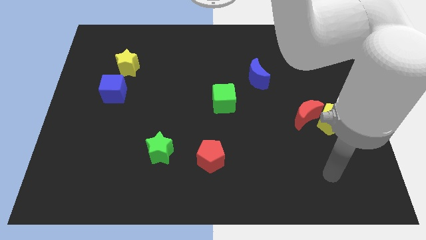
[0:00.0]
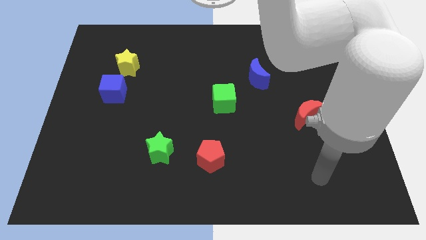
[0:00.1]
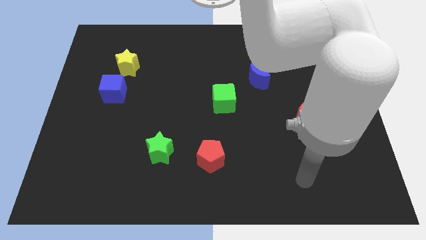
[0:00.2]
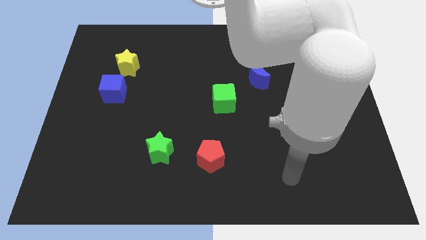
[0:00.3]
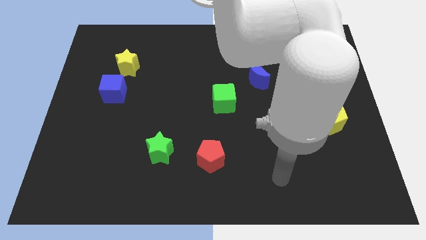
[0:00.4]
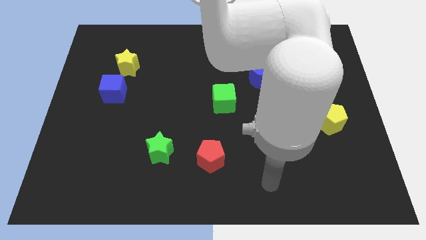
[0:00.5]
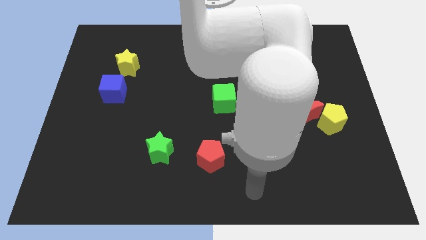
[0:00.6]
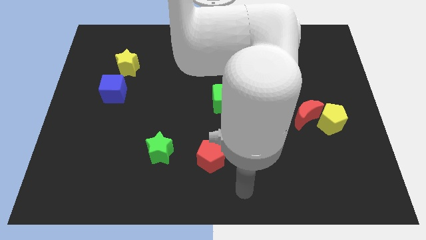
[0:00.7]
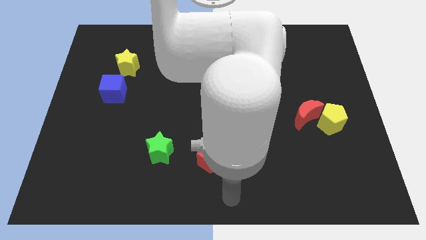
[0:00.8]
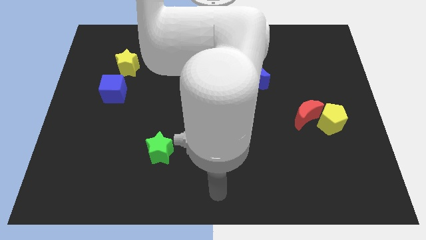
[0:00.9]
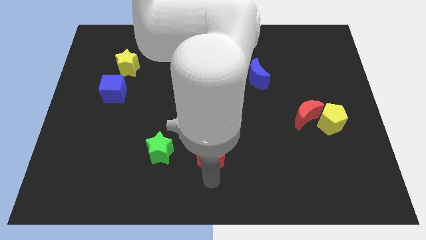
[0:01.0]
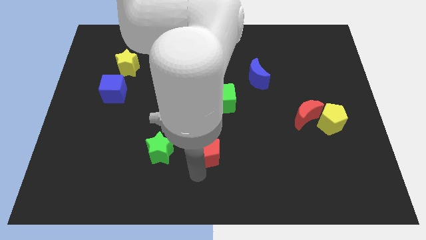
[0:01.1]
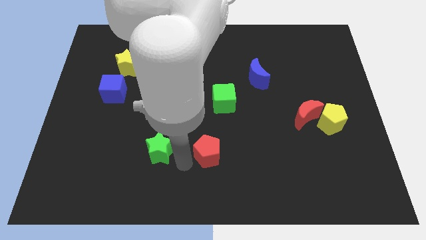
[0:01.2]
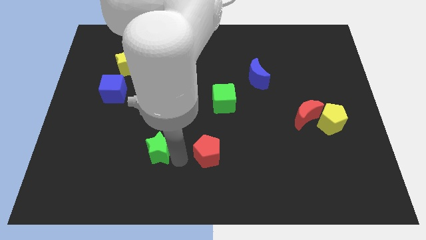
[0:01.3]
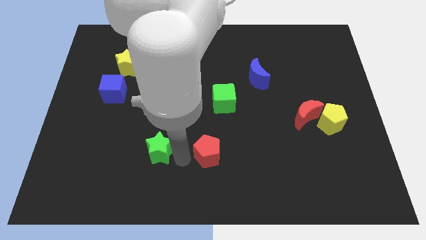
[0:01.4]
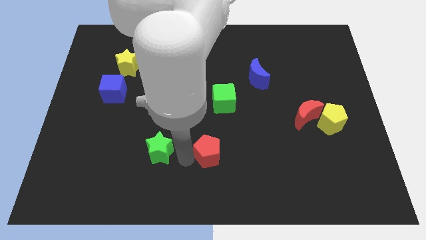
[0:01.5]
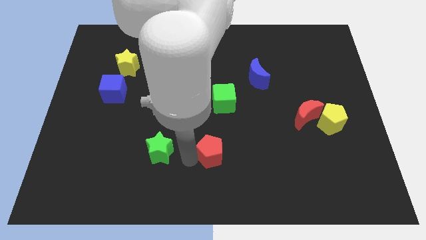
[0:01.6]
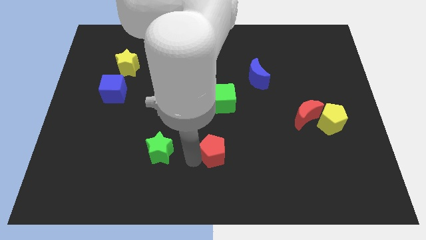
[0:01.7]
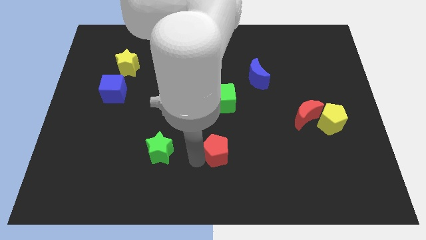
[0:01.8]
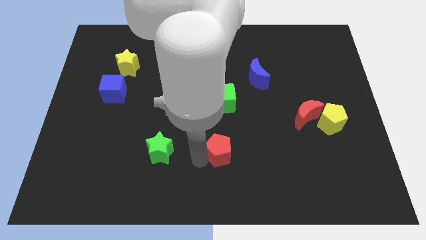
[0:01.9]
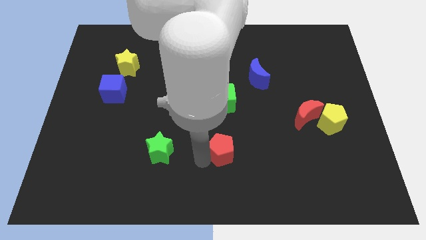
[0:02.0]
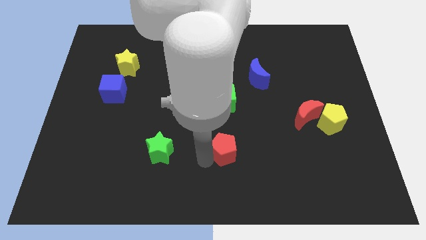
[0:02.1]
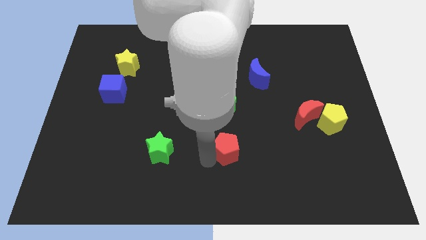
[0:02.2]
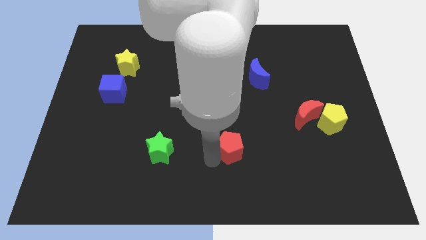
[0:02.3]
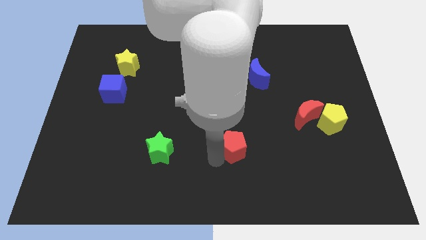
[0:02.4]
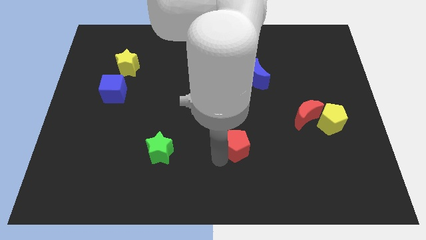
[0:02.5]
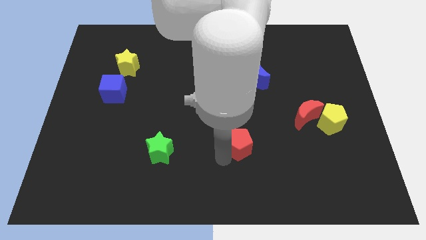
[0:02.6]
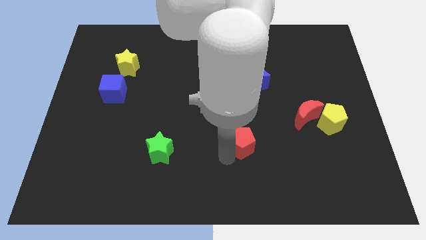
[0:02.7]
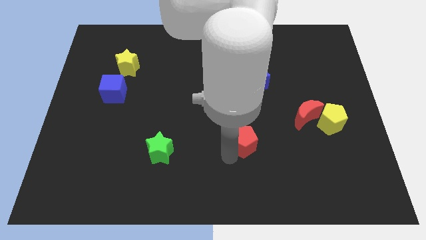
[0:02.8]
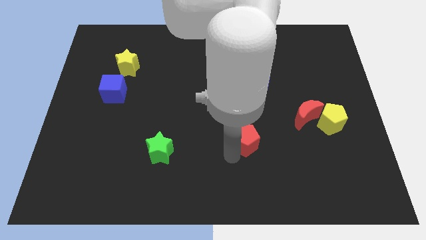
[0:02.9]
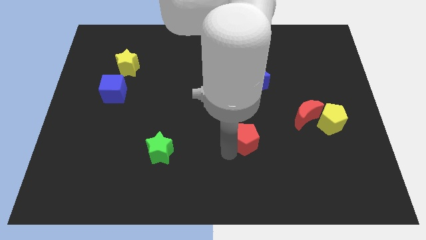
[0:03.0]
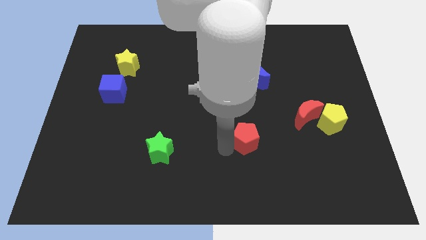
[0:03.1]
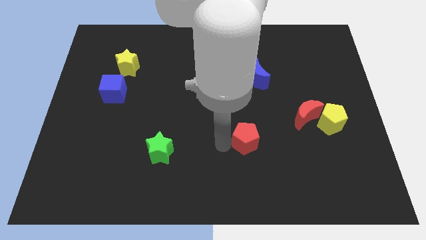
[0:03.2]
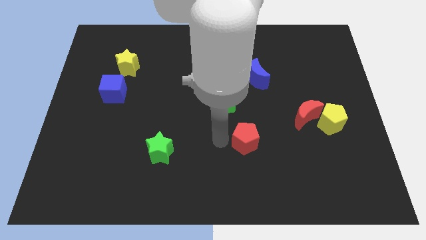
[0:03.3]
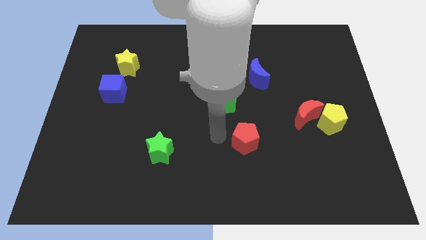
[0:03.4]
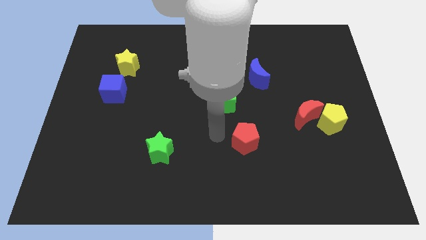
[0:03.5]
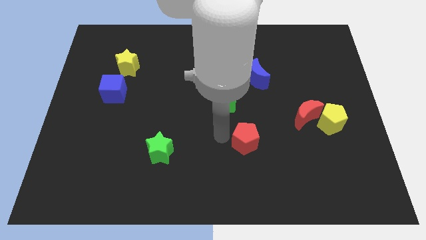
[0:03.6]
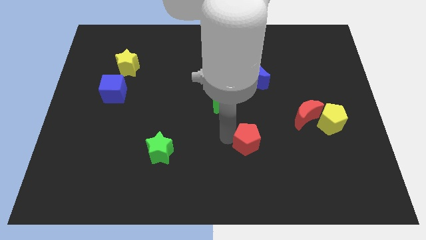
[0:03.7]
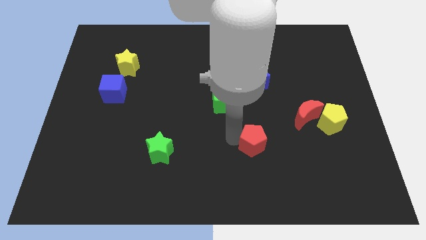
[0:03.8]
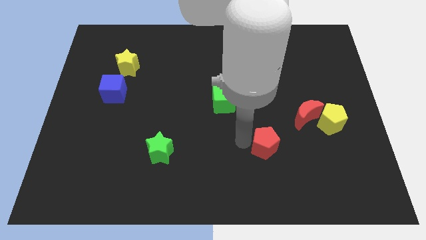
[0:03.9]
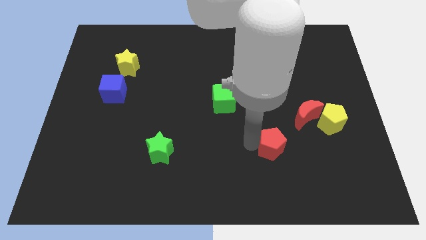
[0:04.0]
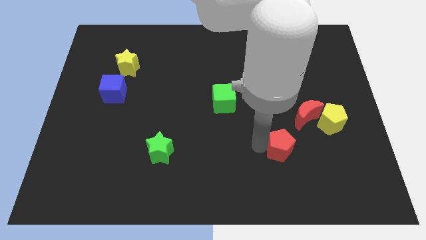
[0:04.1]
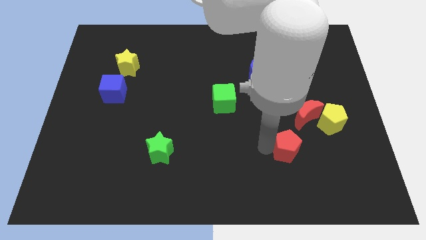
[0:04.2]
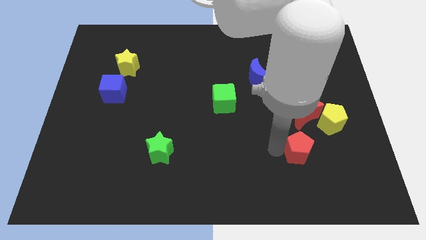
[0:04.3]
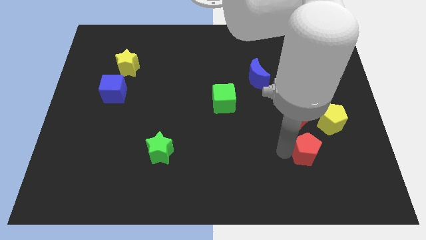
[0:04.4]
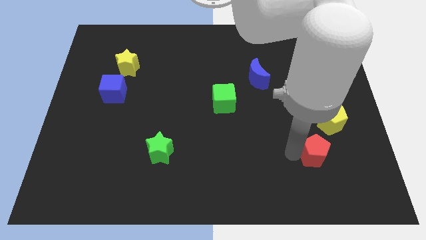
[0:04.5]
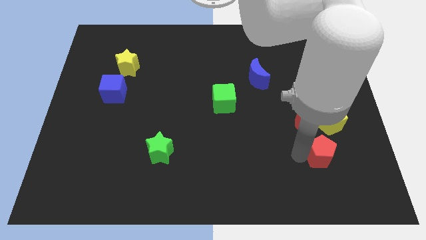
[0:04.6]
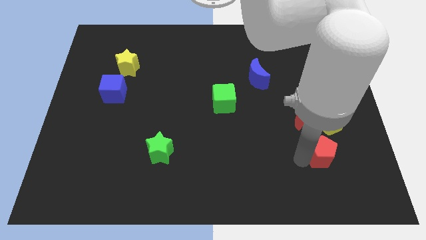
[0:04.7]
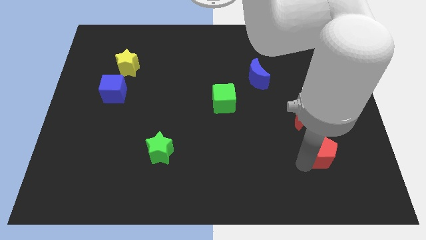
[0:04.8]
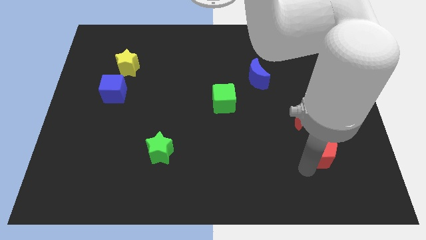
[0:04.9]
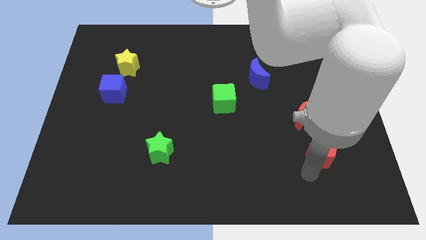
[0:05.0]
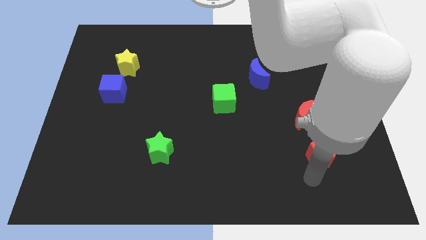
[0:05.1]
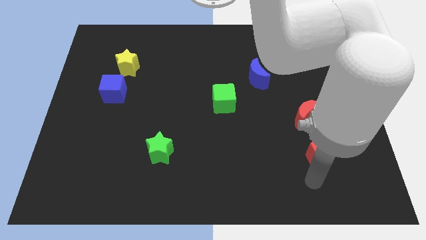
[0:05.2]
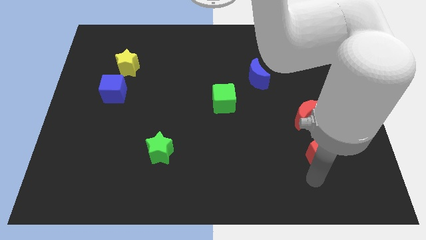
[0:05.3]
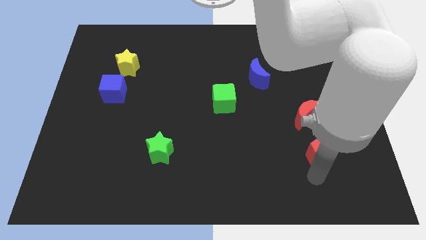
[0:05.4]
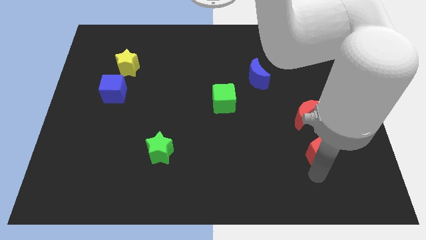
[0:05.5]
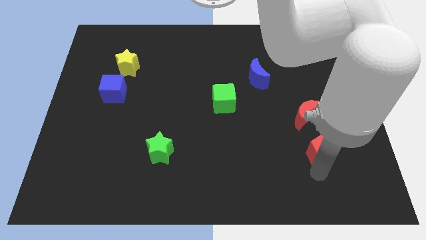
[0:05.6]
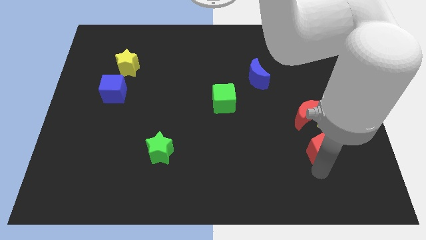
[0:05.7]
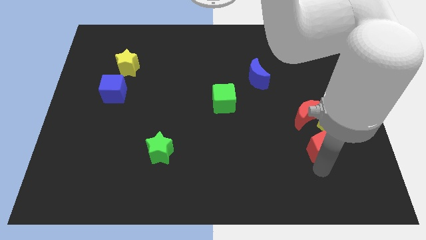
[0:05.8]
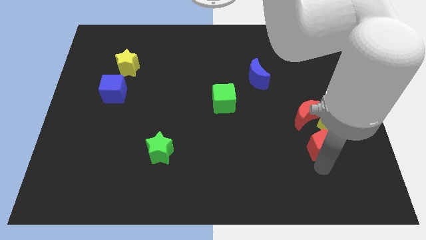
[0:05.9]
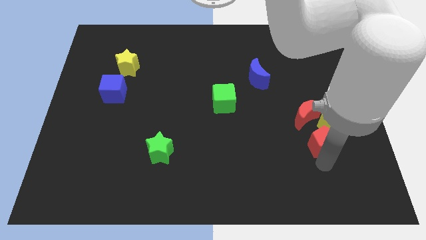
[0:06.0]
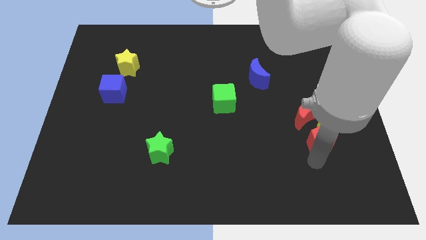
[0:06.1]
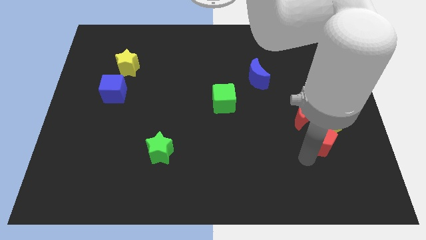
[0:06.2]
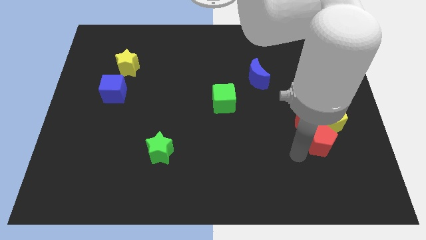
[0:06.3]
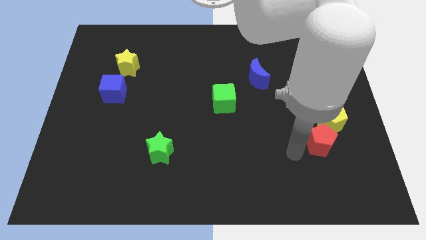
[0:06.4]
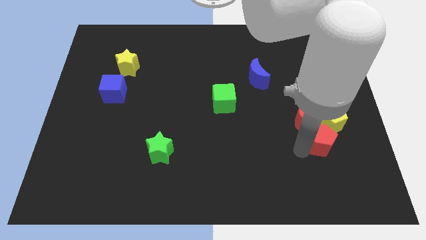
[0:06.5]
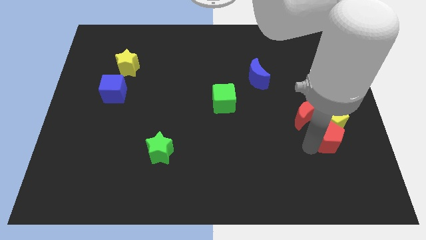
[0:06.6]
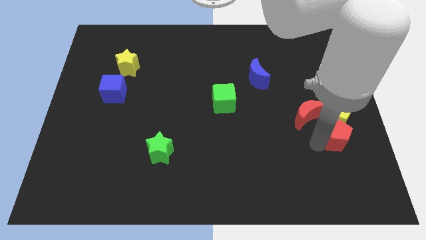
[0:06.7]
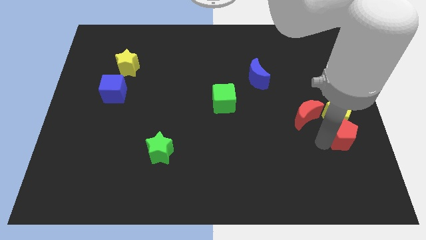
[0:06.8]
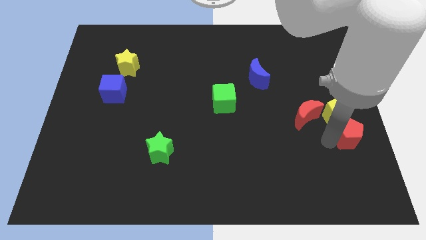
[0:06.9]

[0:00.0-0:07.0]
put the red pentagon to the right side of the board

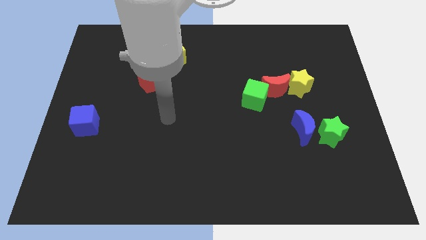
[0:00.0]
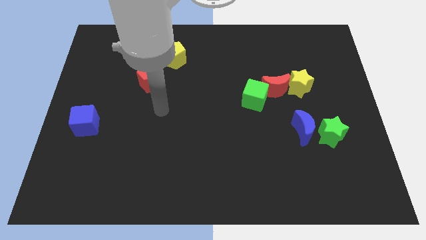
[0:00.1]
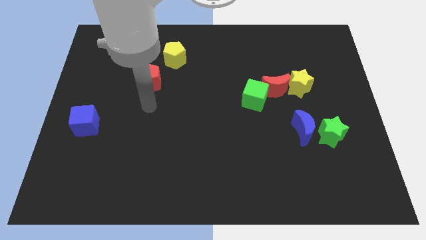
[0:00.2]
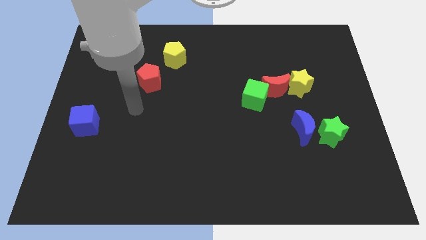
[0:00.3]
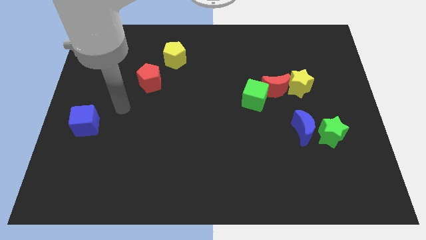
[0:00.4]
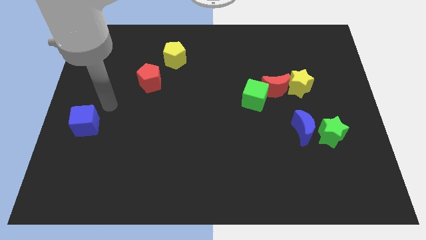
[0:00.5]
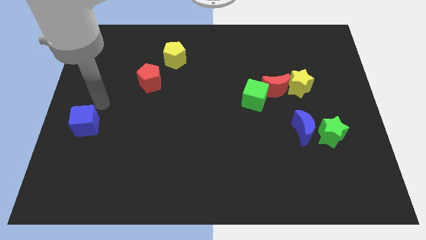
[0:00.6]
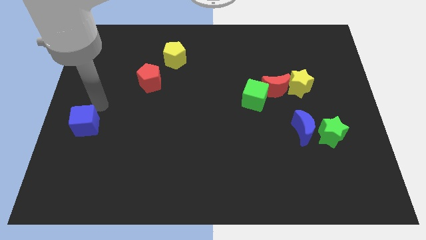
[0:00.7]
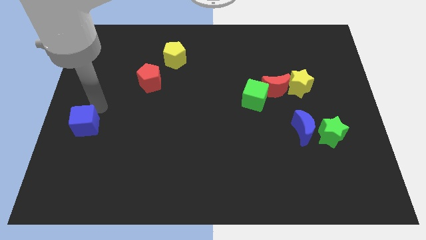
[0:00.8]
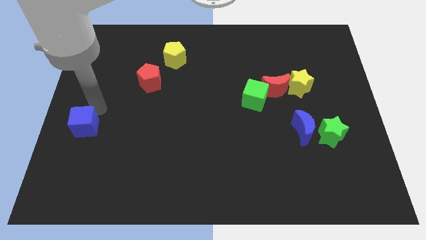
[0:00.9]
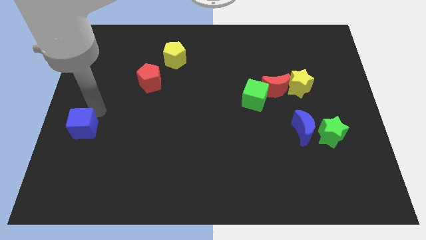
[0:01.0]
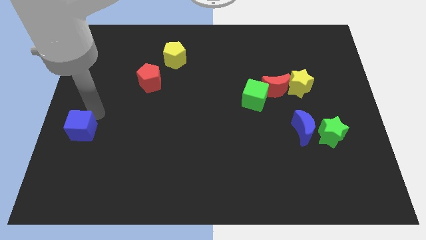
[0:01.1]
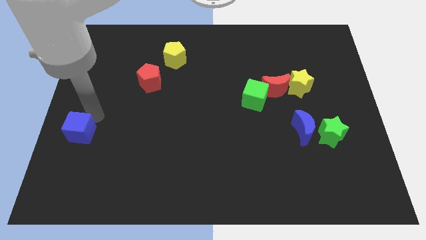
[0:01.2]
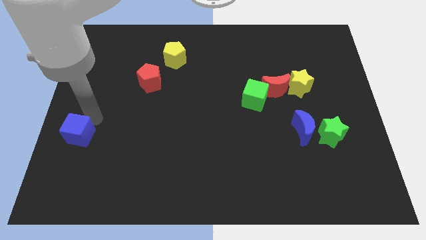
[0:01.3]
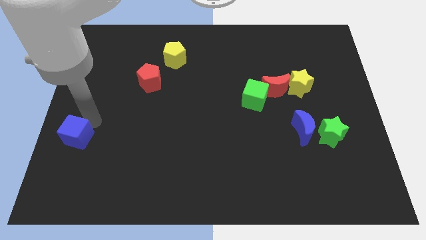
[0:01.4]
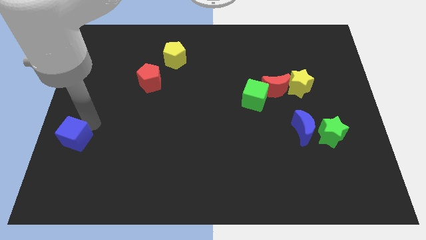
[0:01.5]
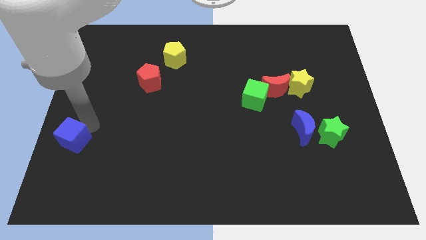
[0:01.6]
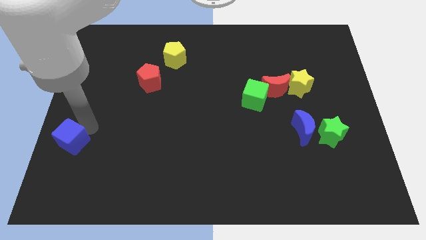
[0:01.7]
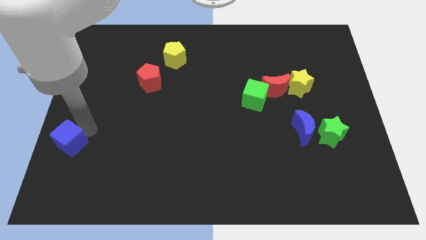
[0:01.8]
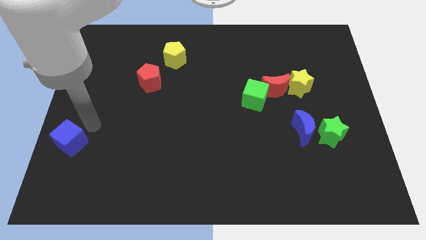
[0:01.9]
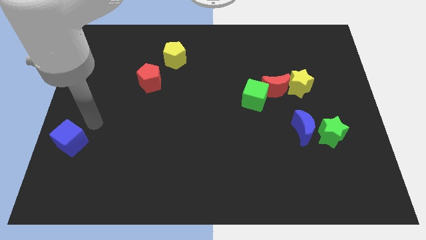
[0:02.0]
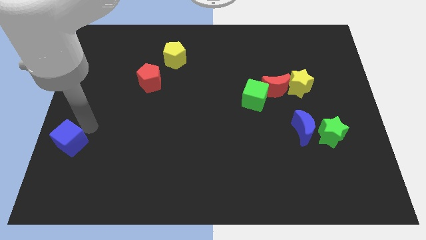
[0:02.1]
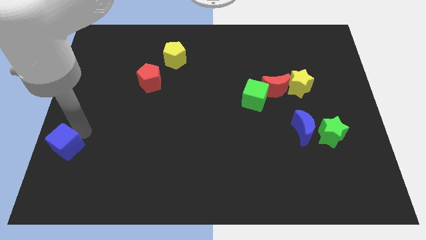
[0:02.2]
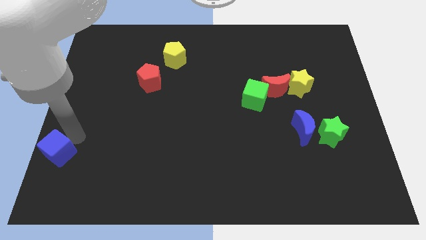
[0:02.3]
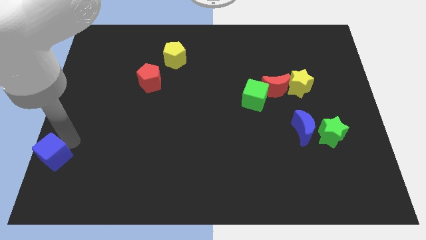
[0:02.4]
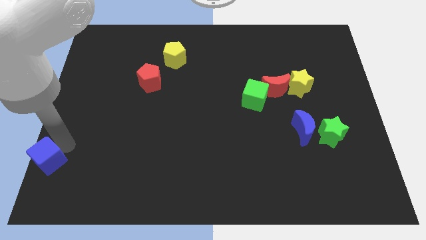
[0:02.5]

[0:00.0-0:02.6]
slide the blue cube to the bottom left of the board
